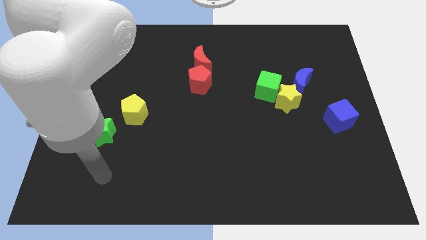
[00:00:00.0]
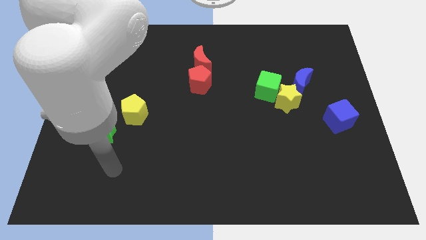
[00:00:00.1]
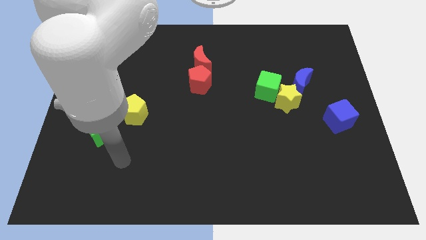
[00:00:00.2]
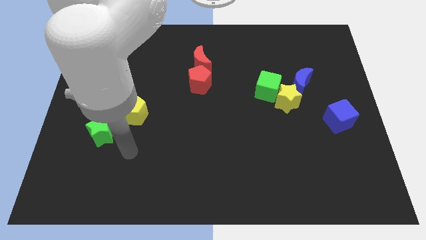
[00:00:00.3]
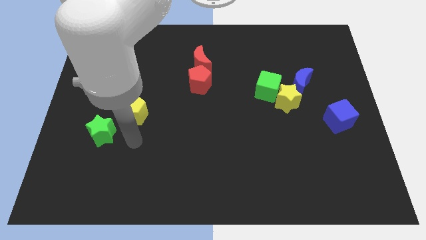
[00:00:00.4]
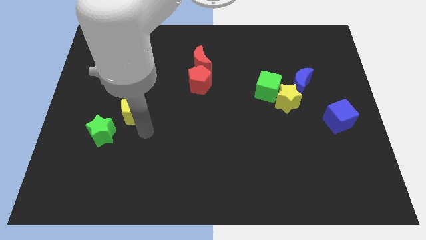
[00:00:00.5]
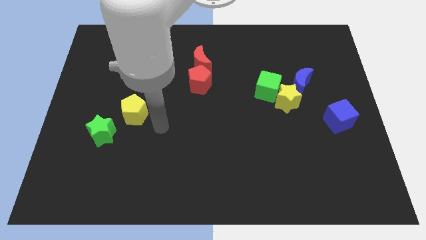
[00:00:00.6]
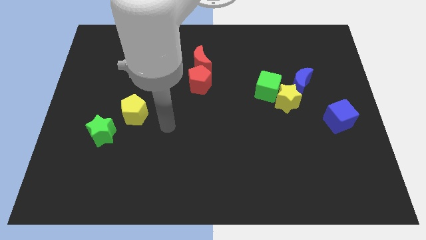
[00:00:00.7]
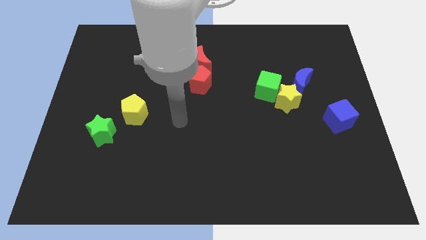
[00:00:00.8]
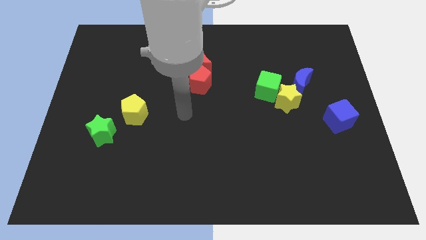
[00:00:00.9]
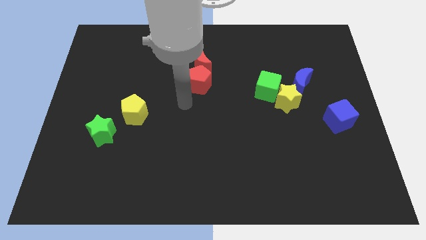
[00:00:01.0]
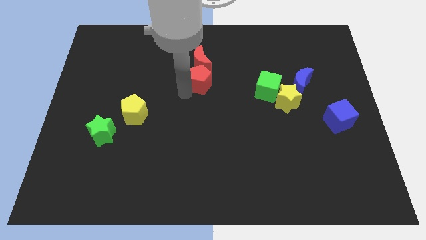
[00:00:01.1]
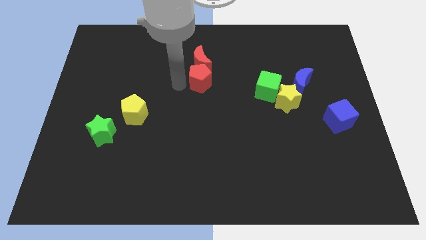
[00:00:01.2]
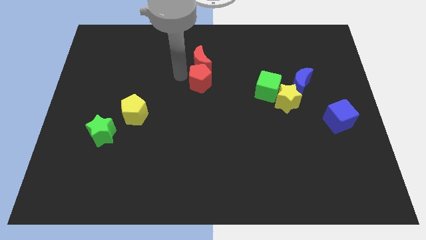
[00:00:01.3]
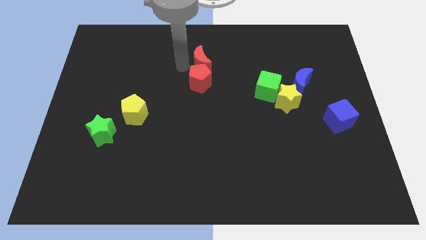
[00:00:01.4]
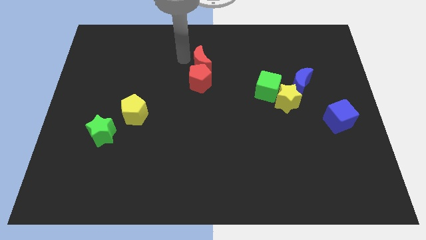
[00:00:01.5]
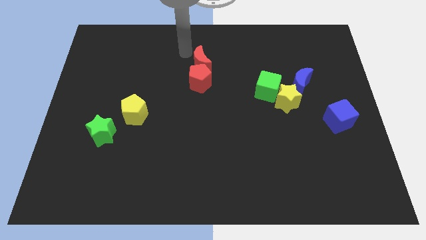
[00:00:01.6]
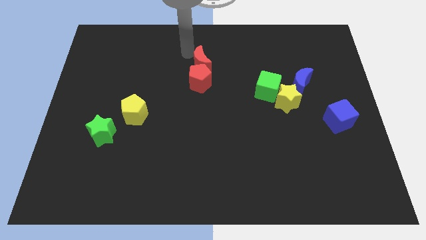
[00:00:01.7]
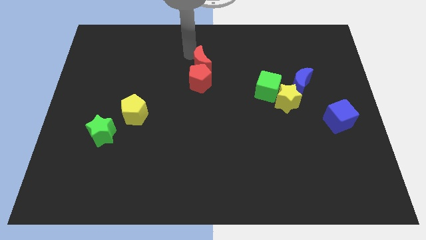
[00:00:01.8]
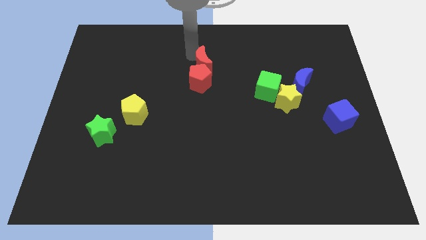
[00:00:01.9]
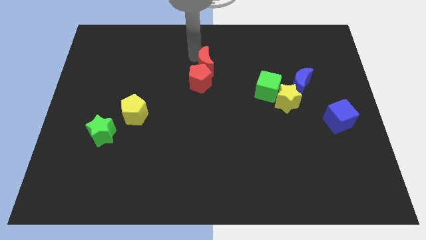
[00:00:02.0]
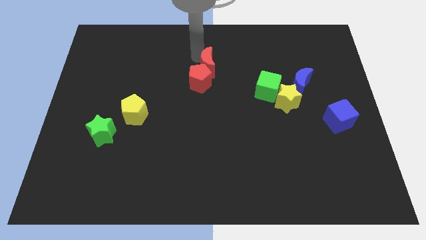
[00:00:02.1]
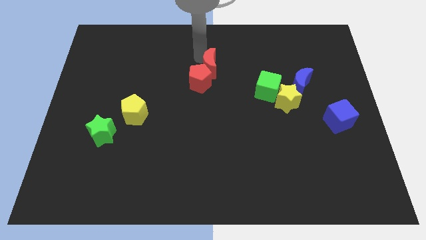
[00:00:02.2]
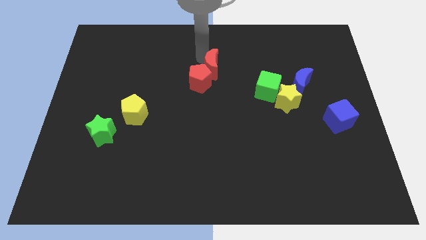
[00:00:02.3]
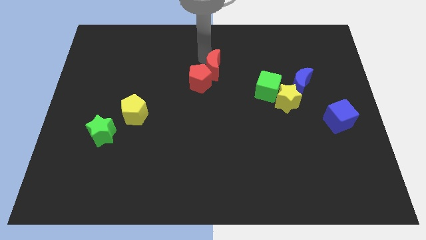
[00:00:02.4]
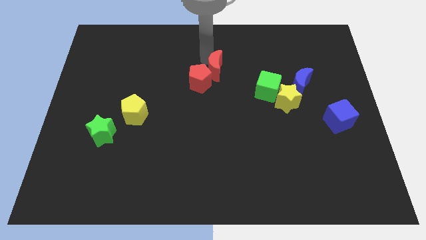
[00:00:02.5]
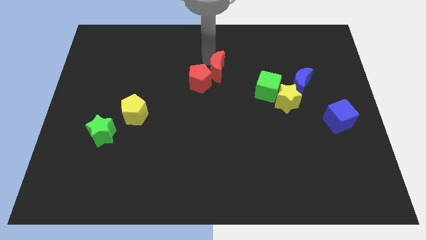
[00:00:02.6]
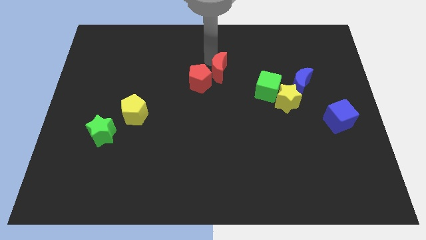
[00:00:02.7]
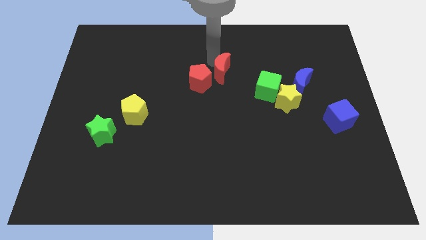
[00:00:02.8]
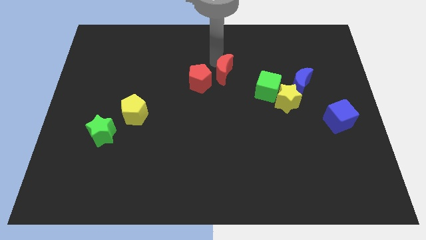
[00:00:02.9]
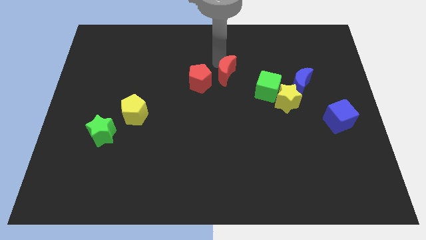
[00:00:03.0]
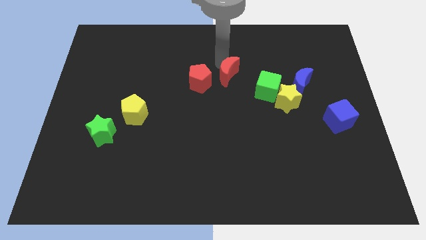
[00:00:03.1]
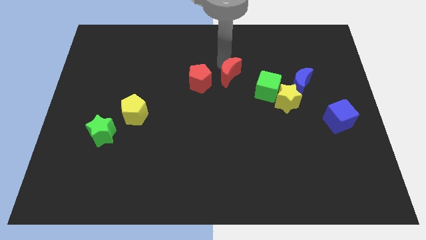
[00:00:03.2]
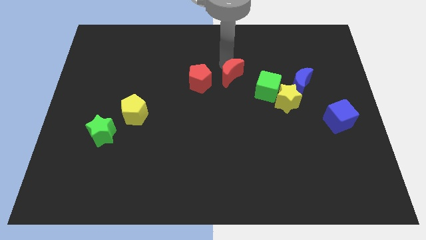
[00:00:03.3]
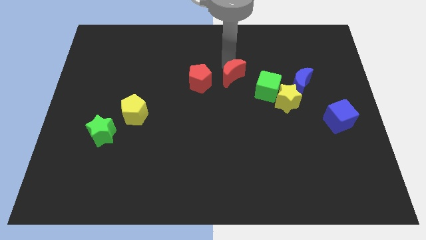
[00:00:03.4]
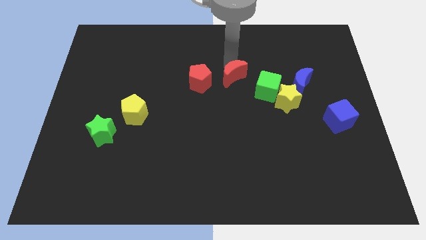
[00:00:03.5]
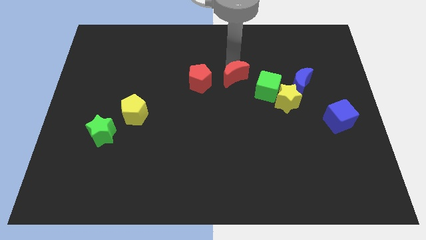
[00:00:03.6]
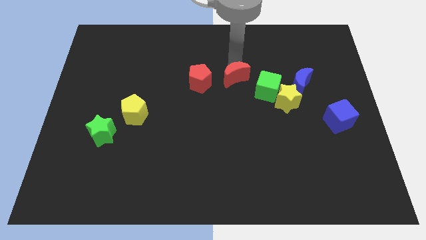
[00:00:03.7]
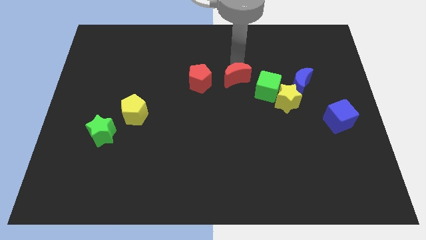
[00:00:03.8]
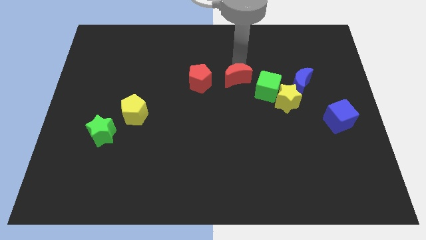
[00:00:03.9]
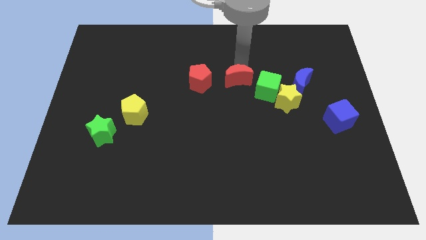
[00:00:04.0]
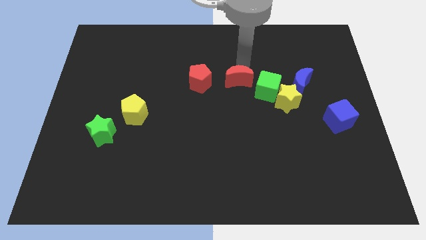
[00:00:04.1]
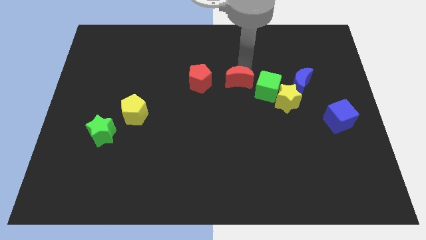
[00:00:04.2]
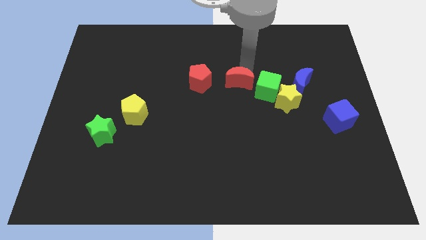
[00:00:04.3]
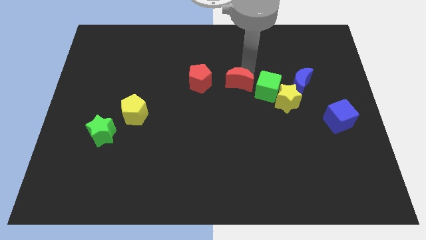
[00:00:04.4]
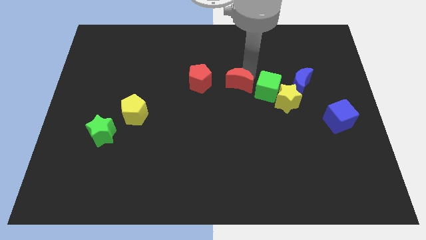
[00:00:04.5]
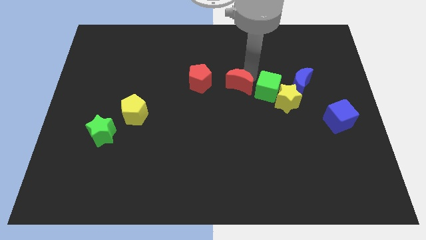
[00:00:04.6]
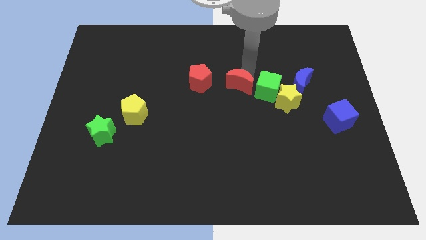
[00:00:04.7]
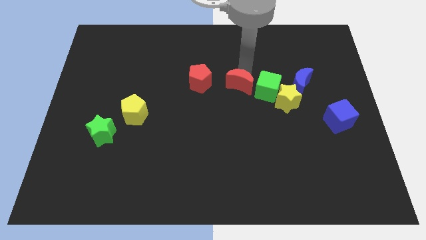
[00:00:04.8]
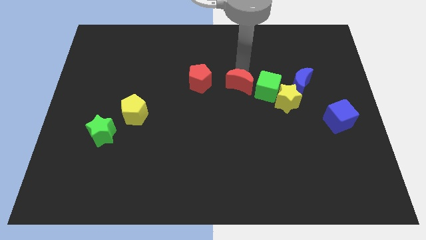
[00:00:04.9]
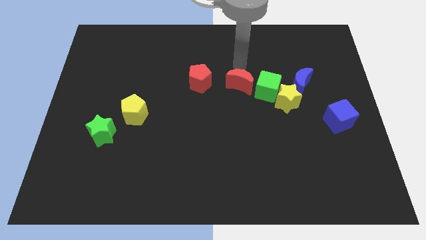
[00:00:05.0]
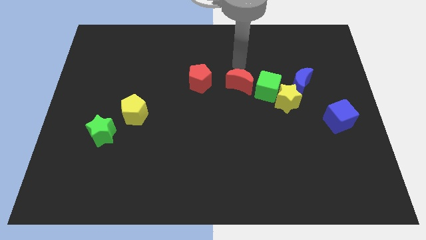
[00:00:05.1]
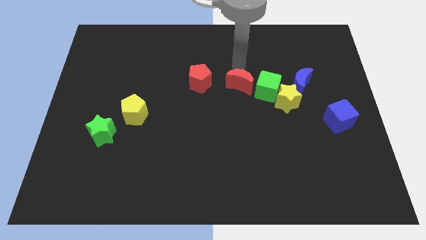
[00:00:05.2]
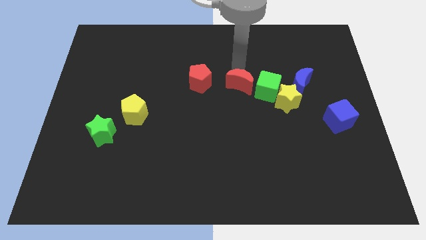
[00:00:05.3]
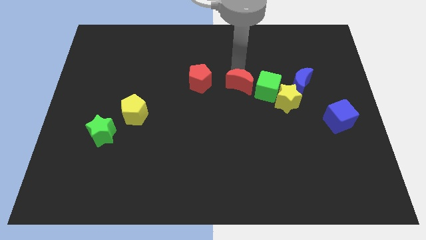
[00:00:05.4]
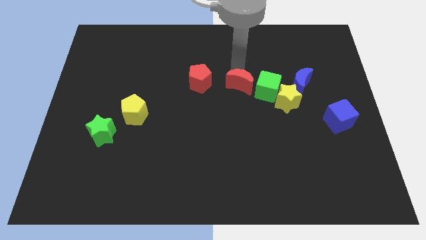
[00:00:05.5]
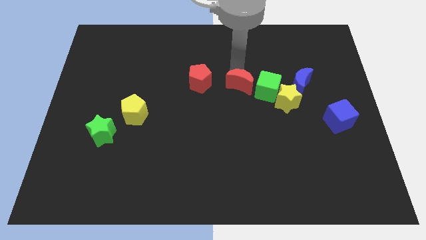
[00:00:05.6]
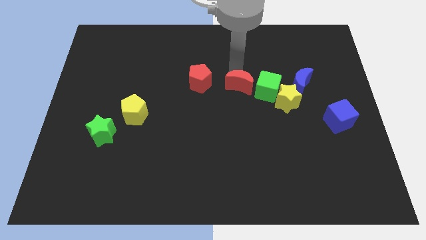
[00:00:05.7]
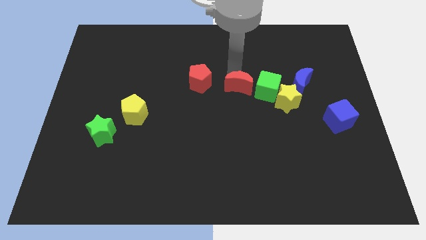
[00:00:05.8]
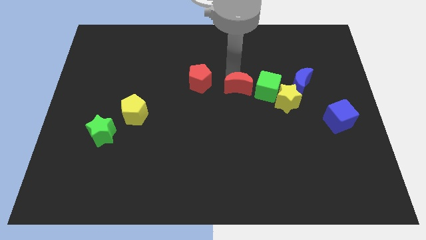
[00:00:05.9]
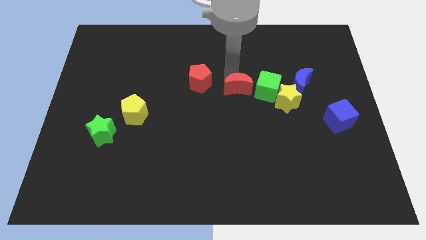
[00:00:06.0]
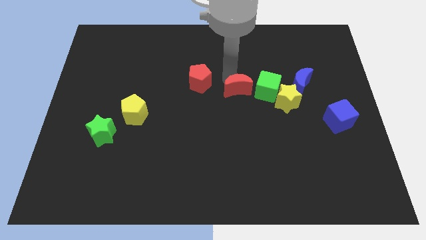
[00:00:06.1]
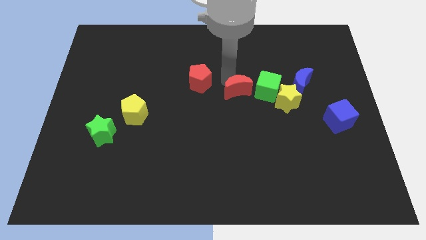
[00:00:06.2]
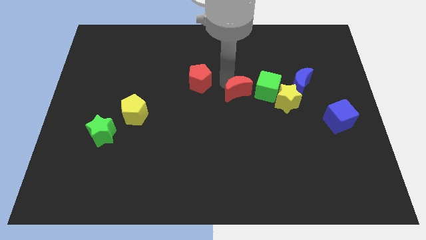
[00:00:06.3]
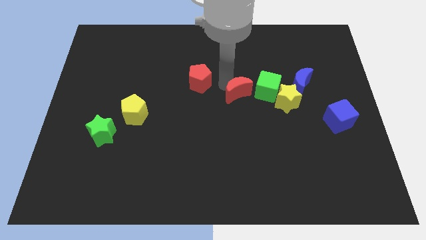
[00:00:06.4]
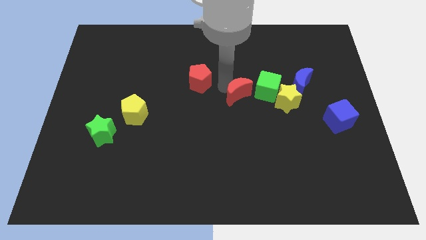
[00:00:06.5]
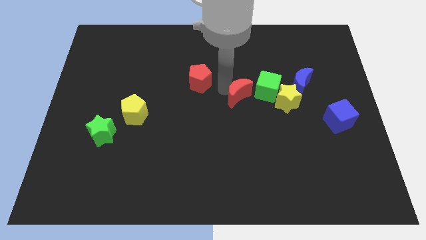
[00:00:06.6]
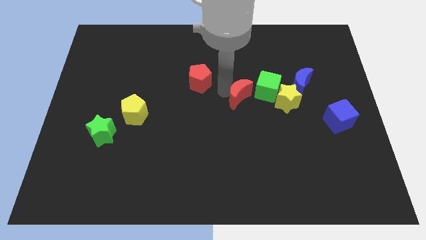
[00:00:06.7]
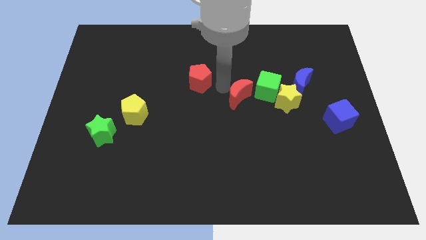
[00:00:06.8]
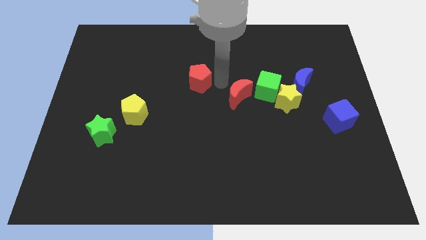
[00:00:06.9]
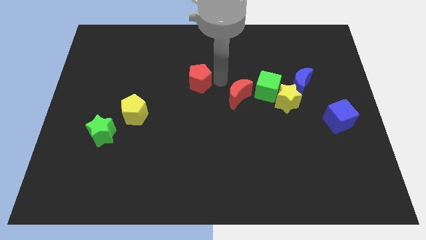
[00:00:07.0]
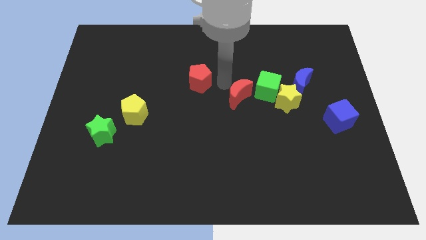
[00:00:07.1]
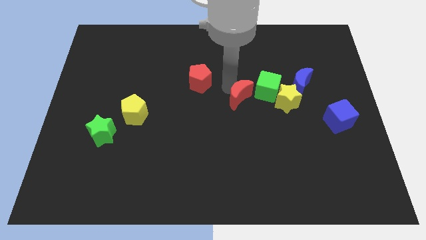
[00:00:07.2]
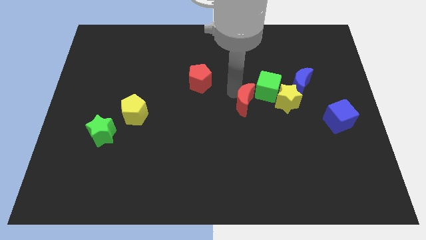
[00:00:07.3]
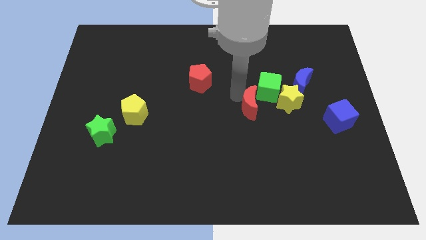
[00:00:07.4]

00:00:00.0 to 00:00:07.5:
push the red moon to the bottom side of the green cube
